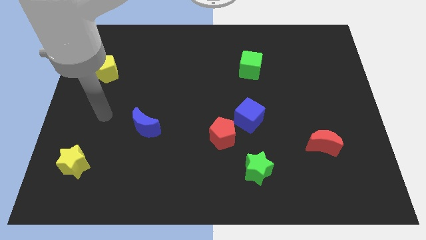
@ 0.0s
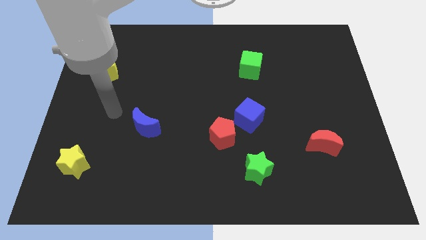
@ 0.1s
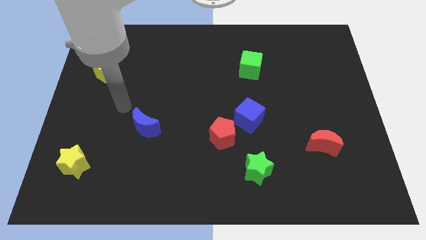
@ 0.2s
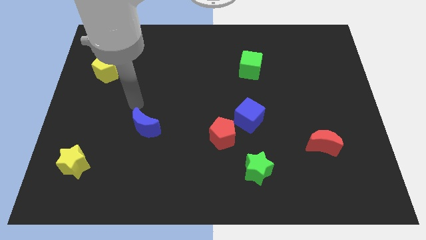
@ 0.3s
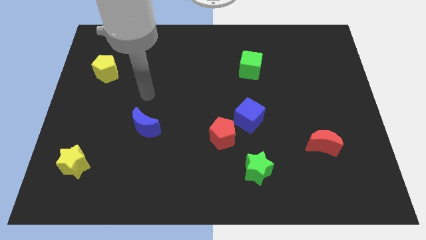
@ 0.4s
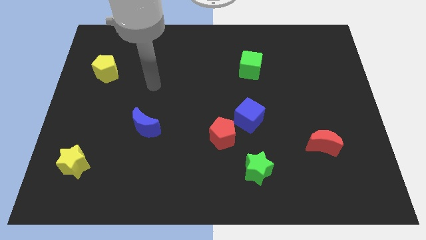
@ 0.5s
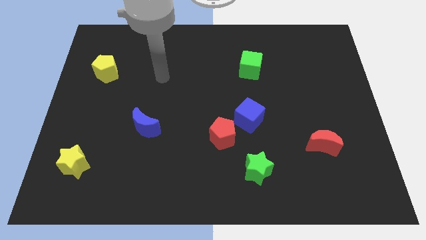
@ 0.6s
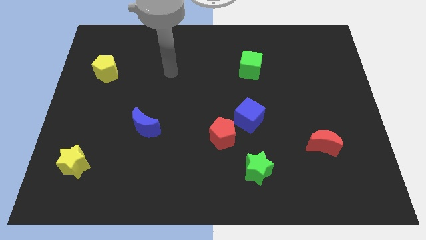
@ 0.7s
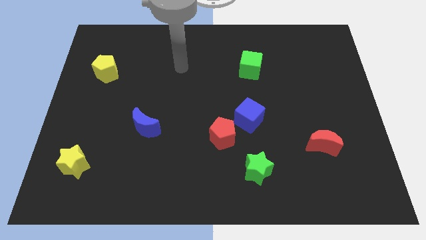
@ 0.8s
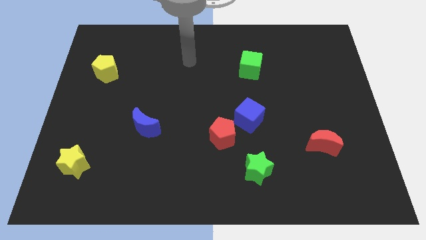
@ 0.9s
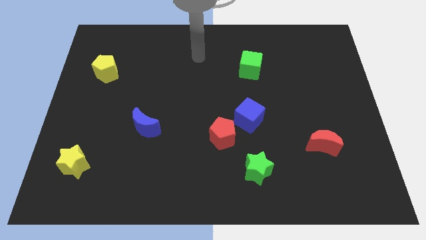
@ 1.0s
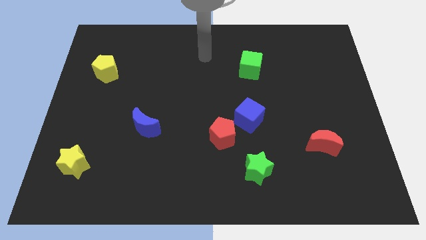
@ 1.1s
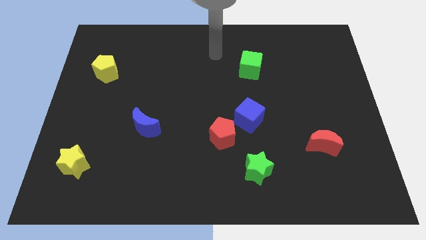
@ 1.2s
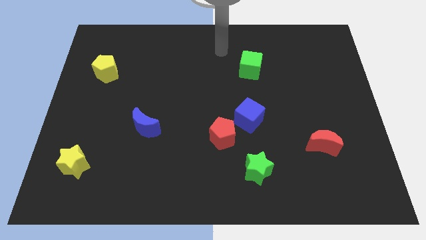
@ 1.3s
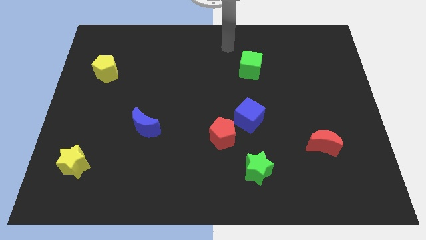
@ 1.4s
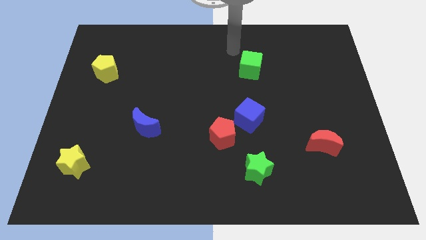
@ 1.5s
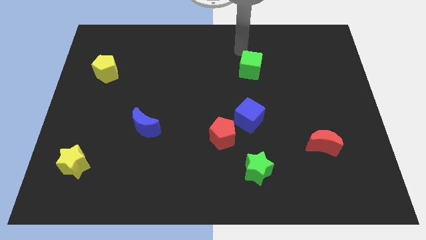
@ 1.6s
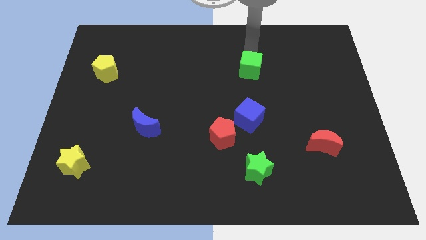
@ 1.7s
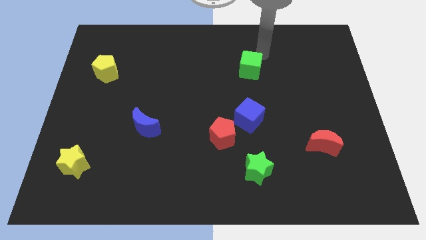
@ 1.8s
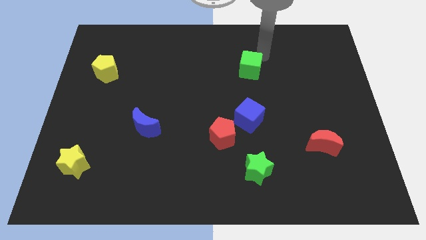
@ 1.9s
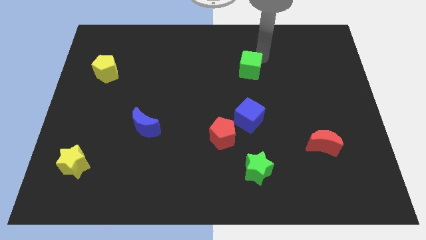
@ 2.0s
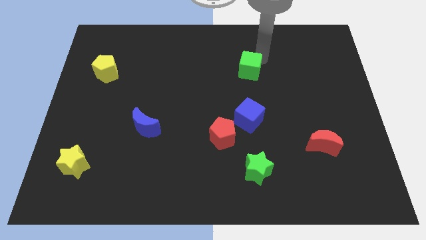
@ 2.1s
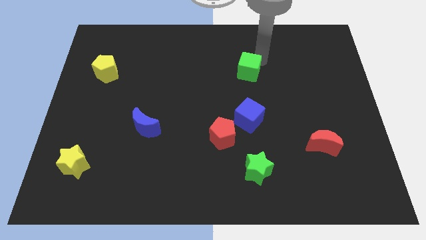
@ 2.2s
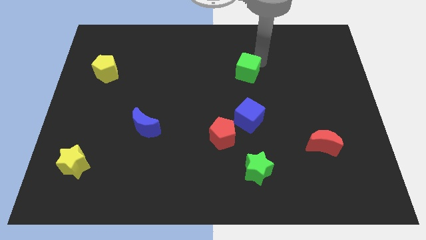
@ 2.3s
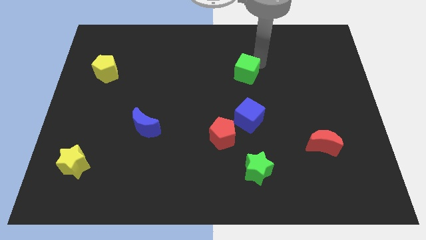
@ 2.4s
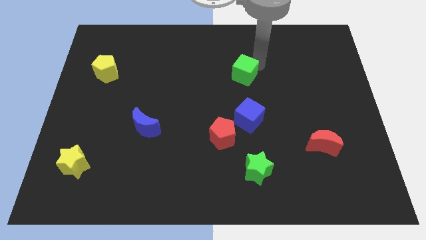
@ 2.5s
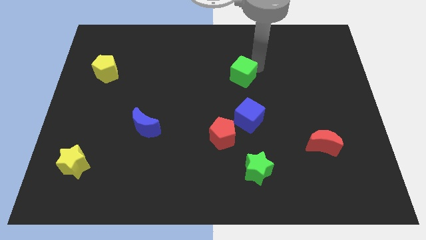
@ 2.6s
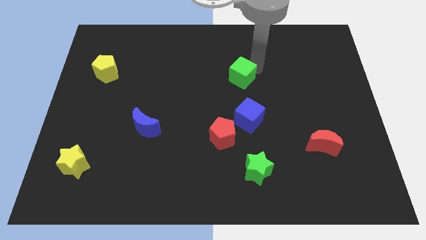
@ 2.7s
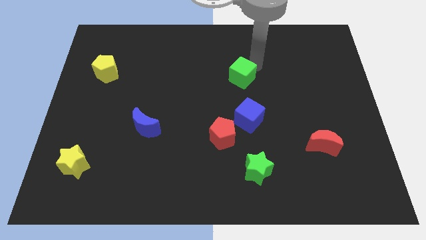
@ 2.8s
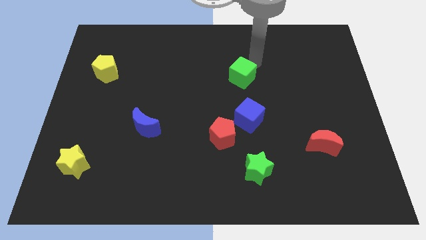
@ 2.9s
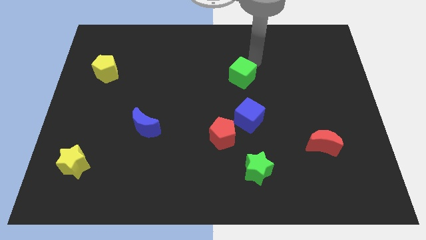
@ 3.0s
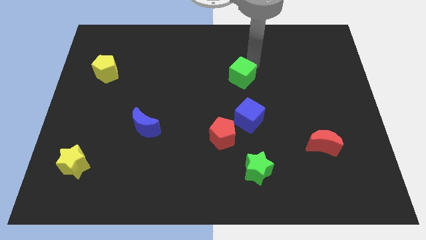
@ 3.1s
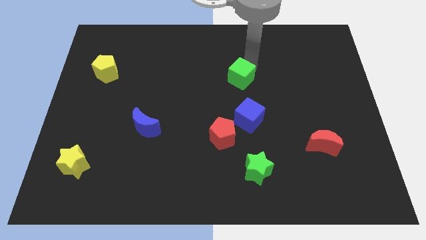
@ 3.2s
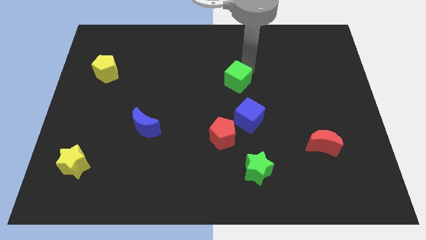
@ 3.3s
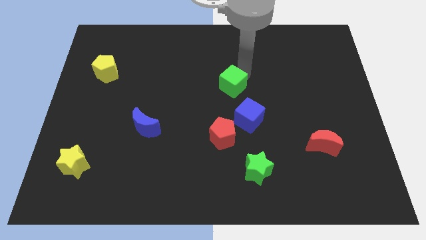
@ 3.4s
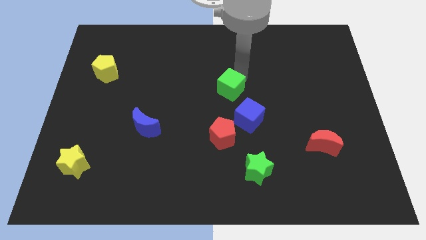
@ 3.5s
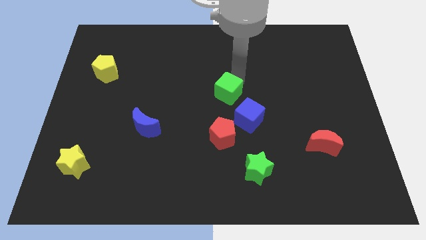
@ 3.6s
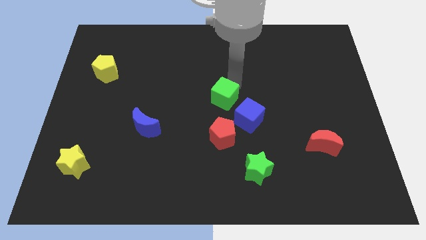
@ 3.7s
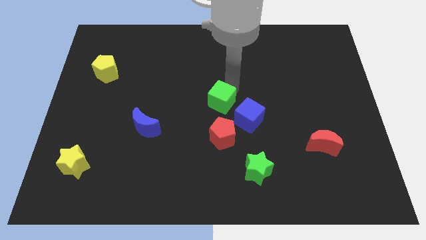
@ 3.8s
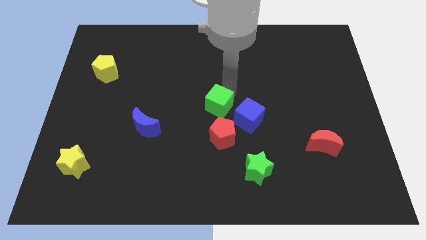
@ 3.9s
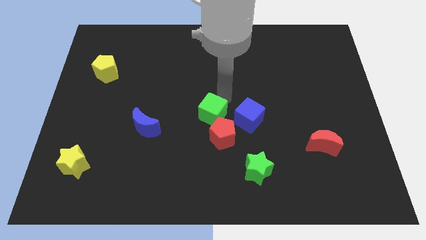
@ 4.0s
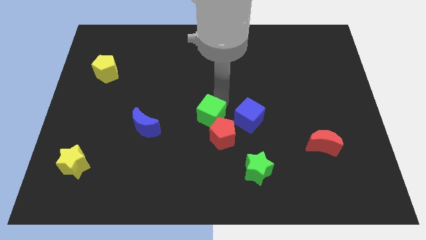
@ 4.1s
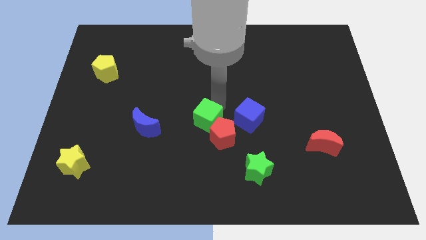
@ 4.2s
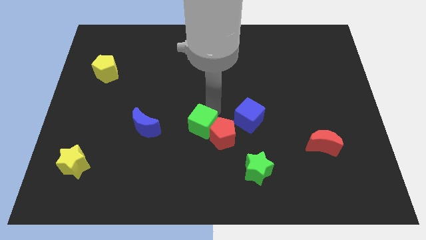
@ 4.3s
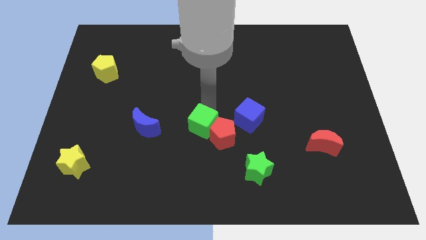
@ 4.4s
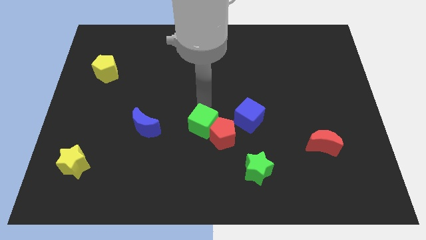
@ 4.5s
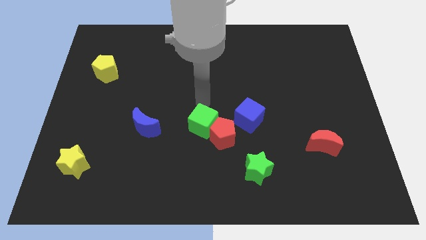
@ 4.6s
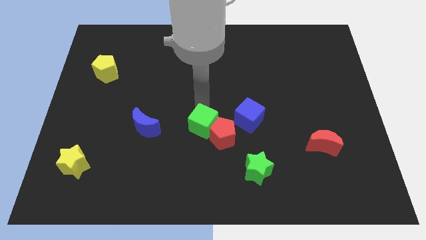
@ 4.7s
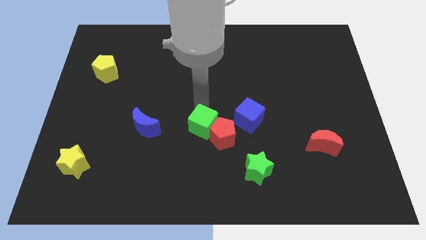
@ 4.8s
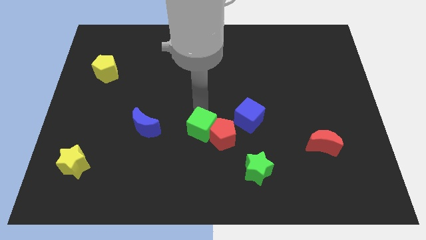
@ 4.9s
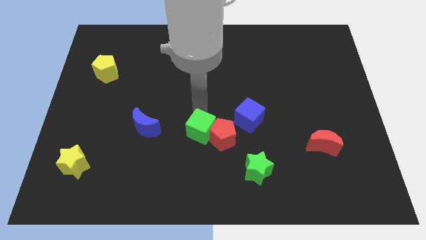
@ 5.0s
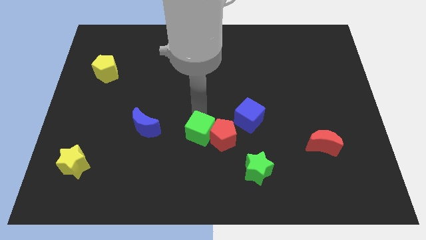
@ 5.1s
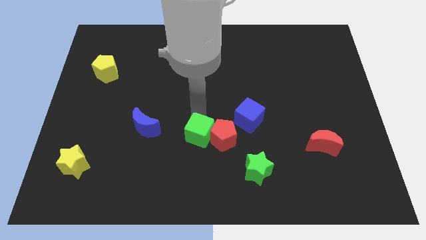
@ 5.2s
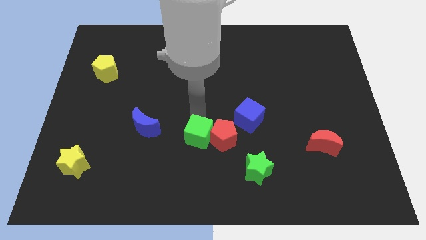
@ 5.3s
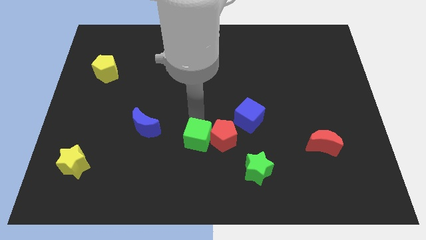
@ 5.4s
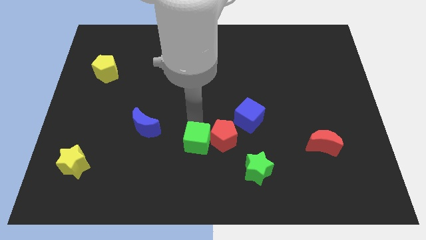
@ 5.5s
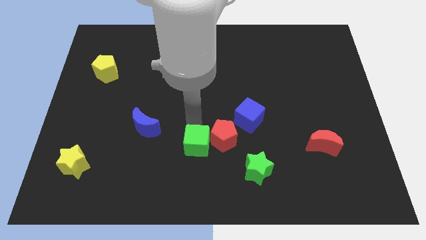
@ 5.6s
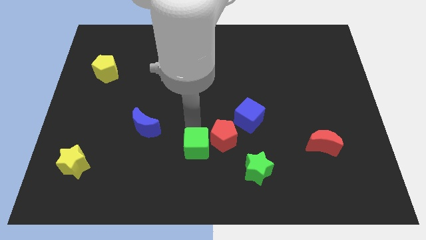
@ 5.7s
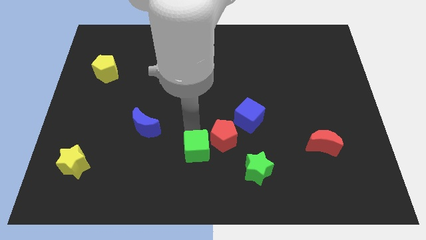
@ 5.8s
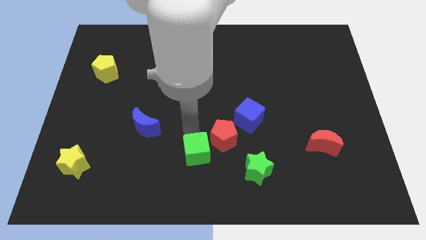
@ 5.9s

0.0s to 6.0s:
put the green cube to the left side of the green star
